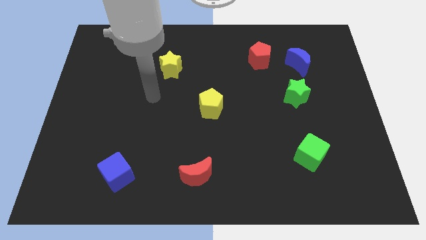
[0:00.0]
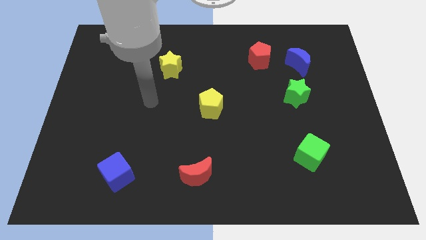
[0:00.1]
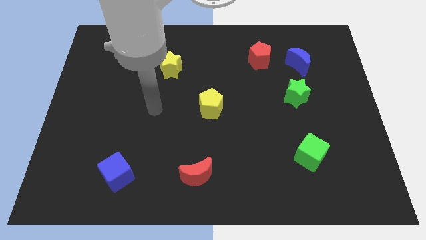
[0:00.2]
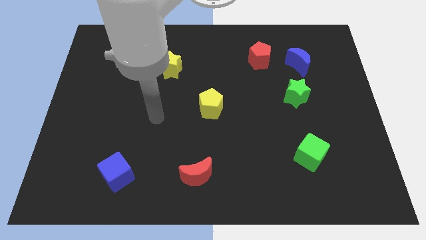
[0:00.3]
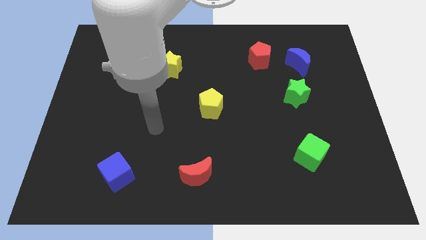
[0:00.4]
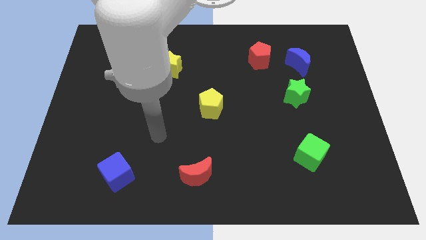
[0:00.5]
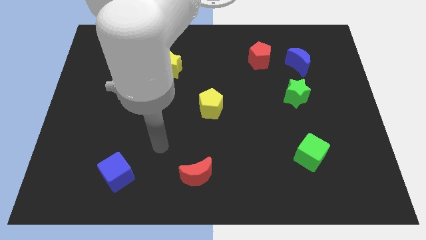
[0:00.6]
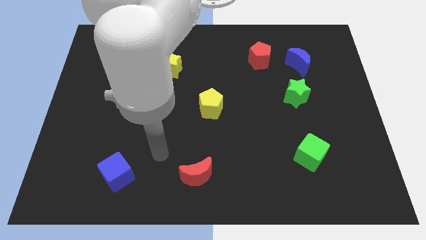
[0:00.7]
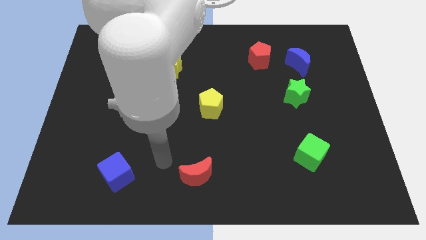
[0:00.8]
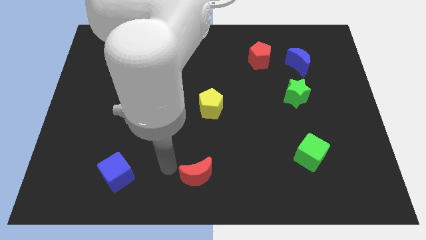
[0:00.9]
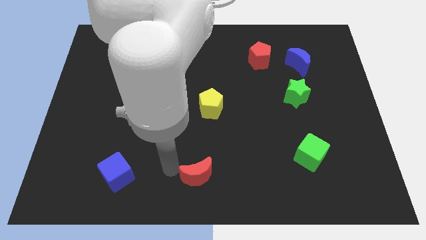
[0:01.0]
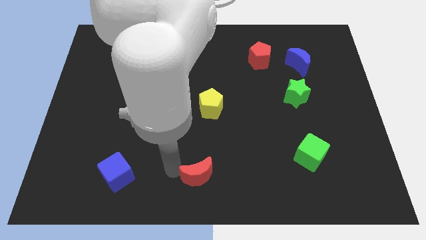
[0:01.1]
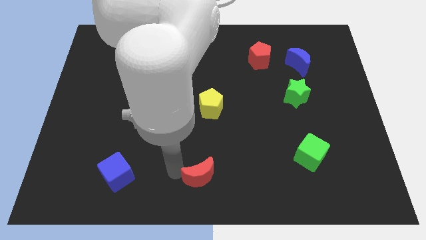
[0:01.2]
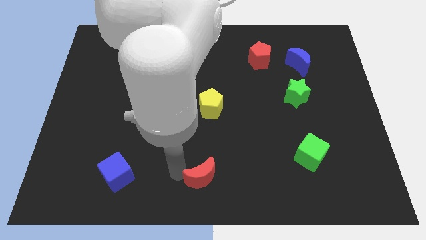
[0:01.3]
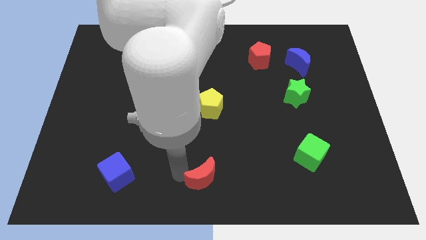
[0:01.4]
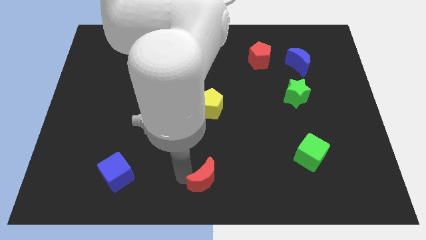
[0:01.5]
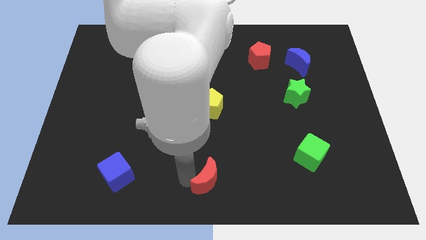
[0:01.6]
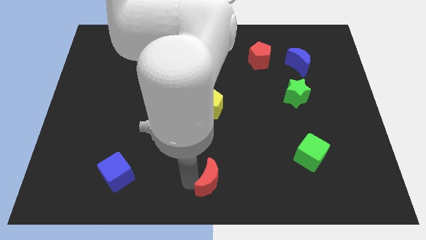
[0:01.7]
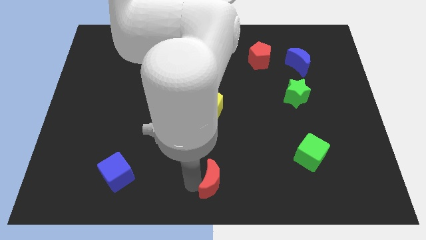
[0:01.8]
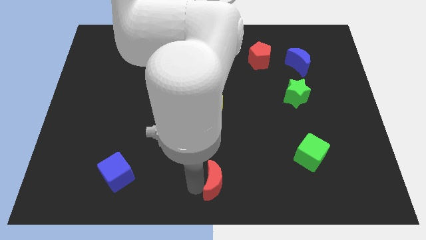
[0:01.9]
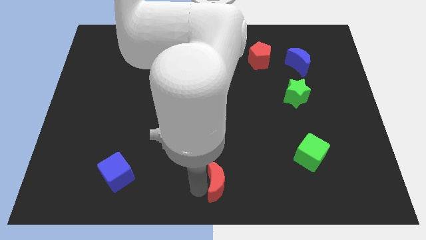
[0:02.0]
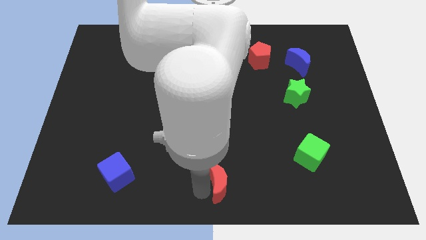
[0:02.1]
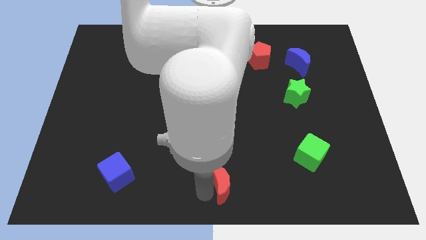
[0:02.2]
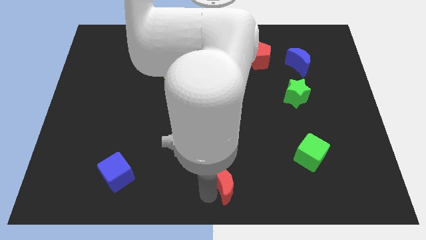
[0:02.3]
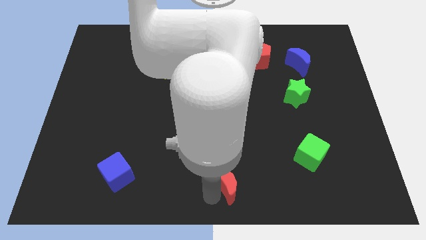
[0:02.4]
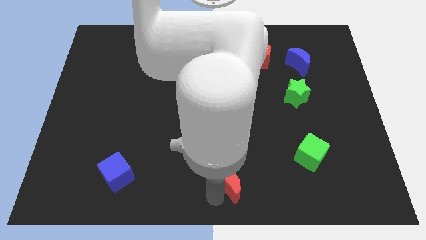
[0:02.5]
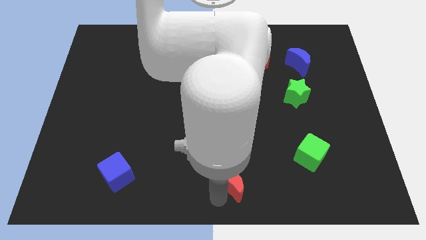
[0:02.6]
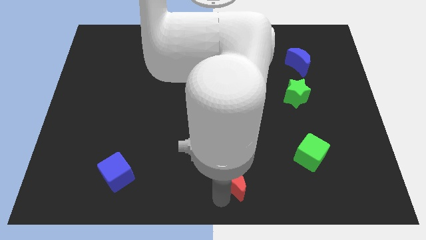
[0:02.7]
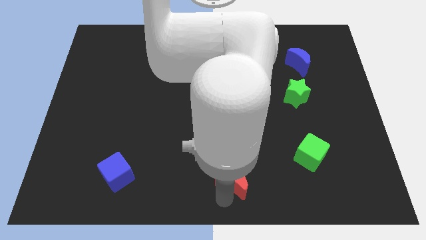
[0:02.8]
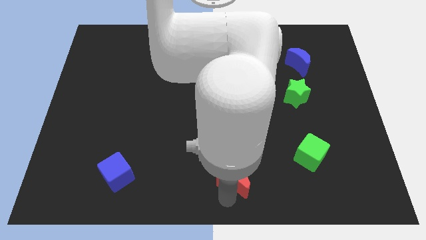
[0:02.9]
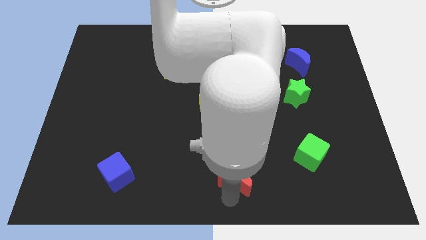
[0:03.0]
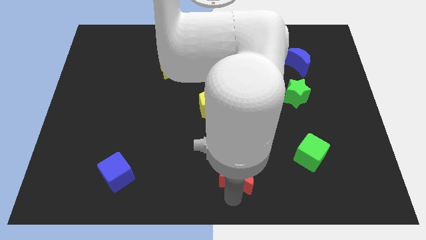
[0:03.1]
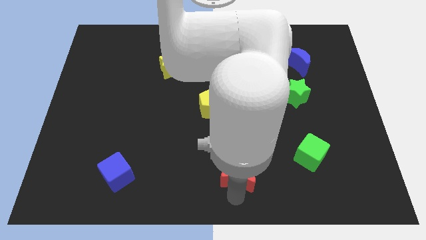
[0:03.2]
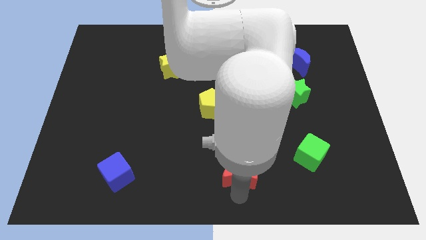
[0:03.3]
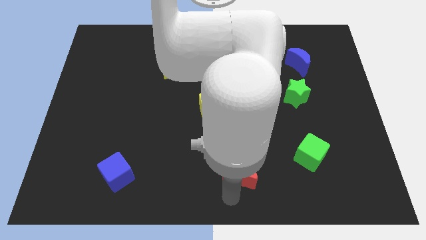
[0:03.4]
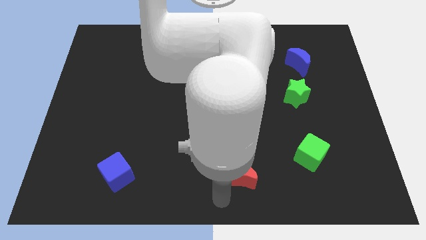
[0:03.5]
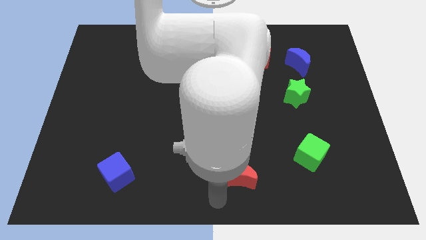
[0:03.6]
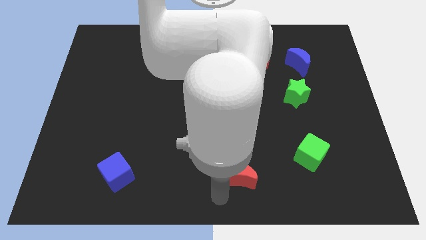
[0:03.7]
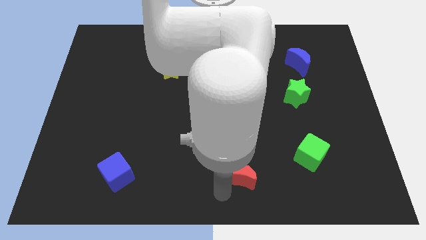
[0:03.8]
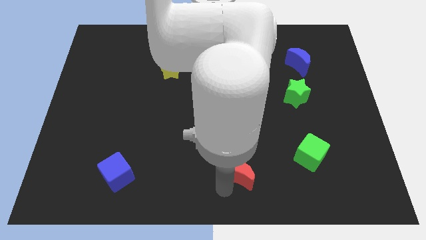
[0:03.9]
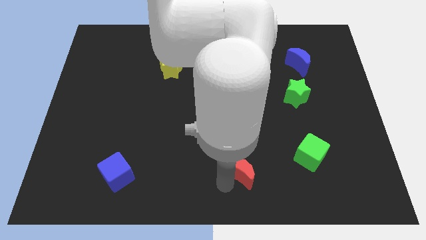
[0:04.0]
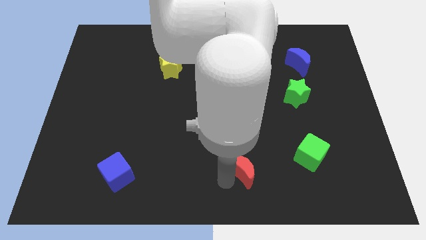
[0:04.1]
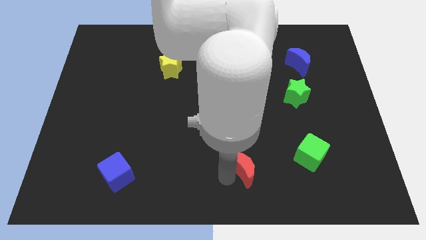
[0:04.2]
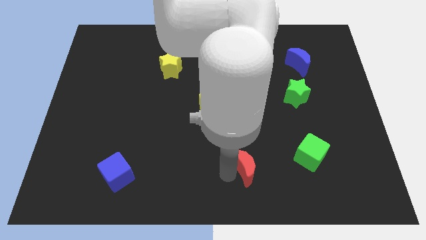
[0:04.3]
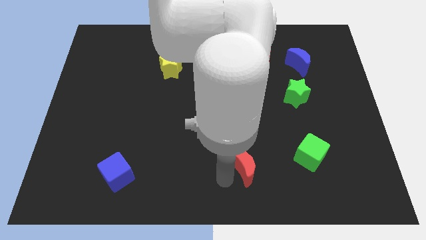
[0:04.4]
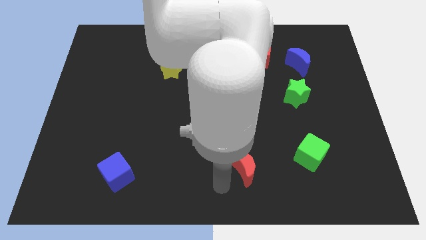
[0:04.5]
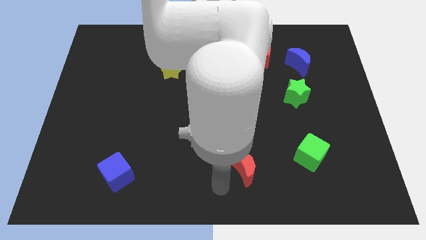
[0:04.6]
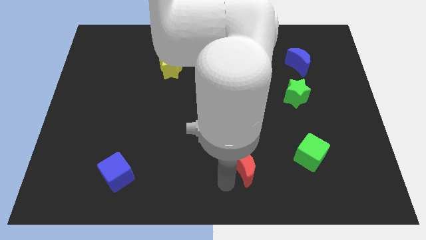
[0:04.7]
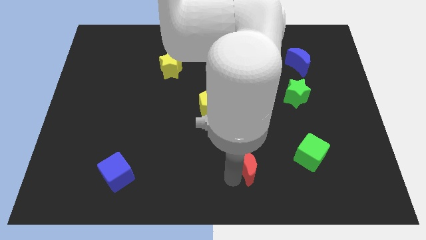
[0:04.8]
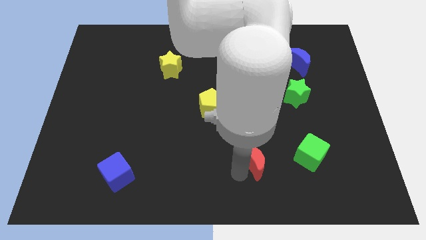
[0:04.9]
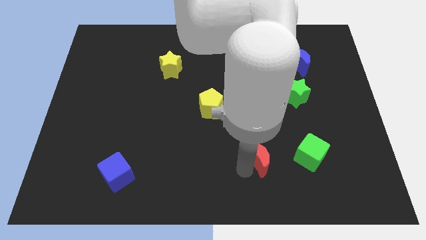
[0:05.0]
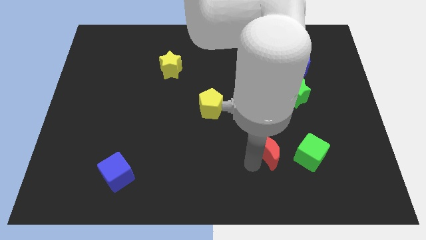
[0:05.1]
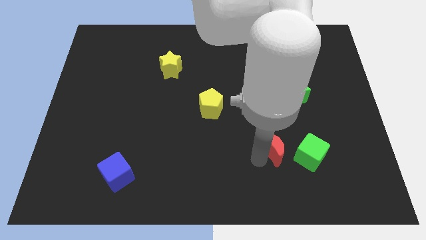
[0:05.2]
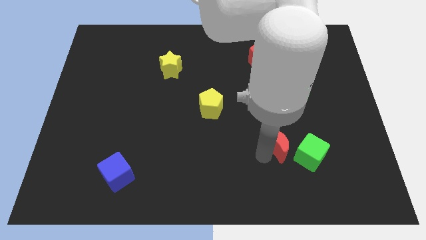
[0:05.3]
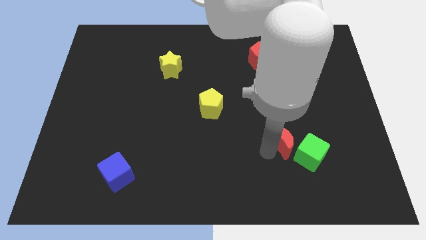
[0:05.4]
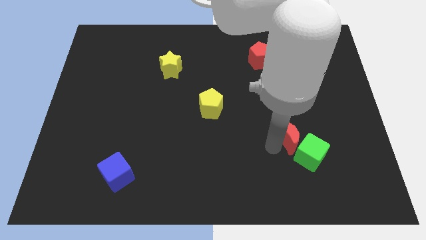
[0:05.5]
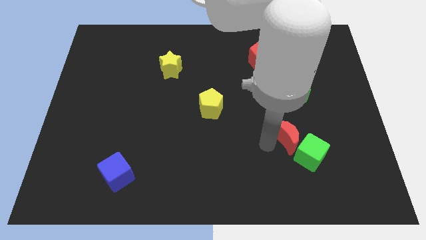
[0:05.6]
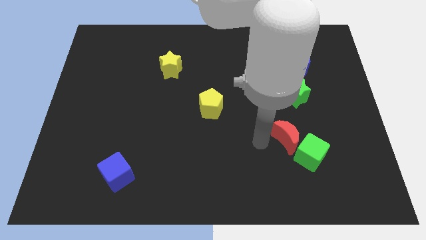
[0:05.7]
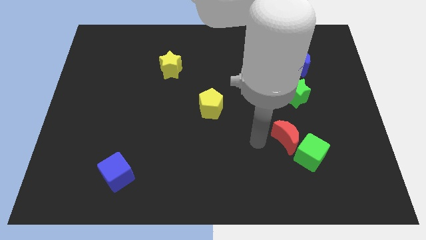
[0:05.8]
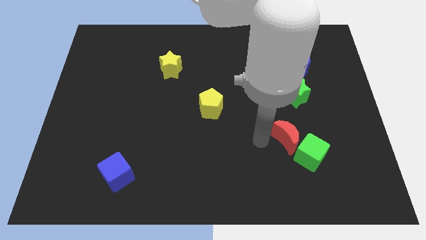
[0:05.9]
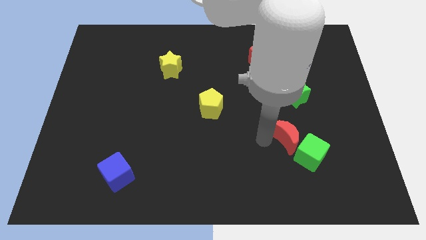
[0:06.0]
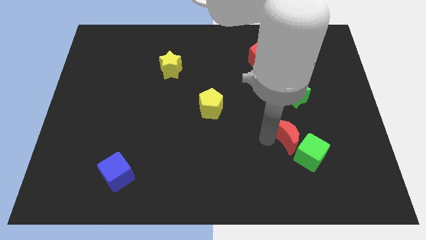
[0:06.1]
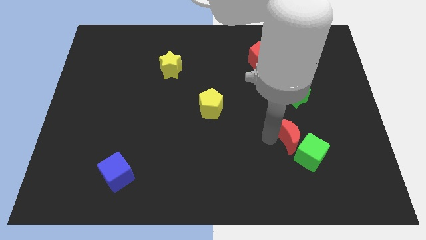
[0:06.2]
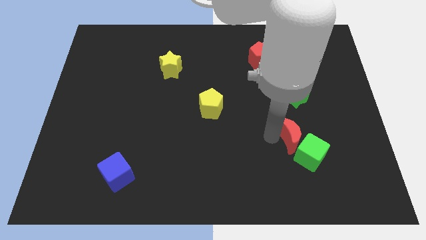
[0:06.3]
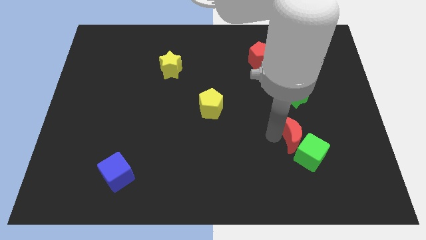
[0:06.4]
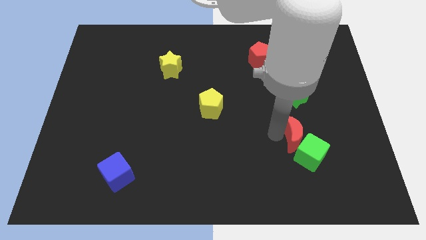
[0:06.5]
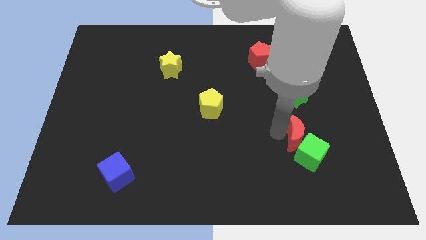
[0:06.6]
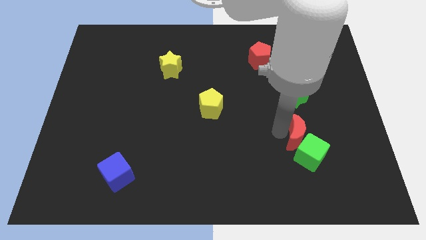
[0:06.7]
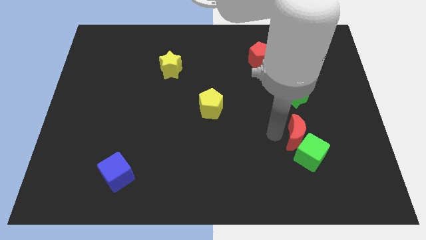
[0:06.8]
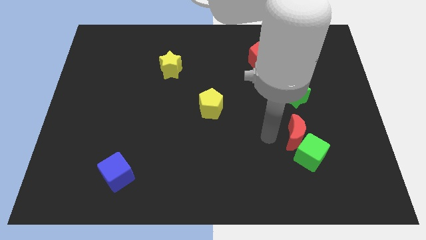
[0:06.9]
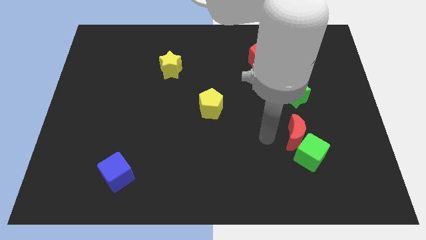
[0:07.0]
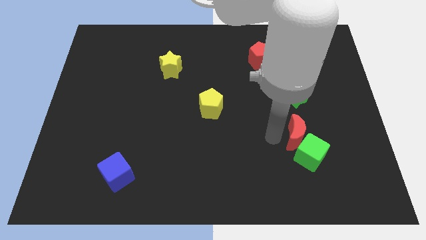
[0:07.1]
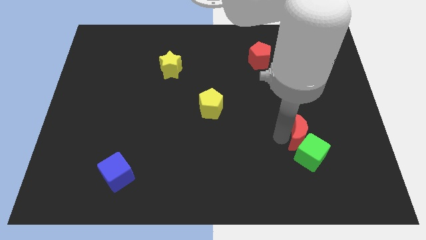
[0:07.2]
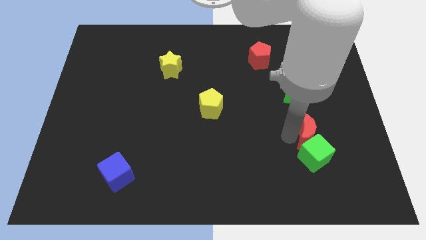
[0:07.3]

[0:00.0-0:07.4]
push the red moon diagonally up and to the right of the green cube

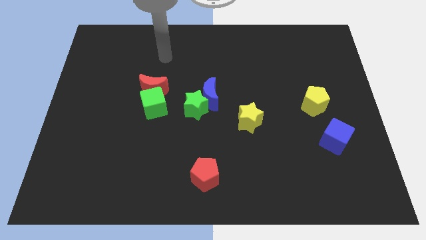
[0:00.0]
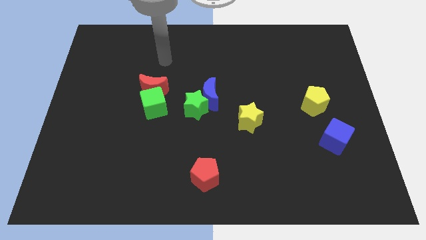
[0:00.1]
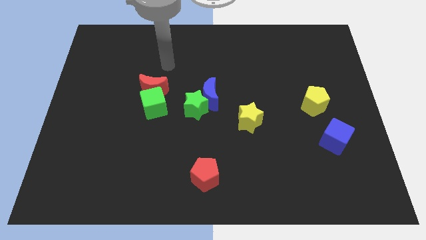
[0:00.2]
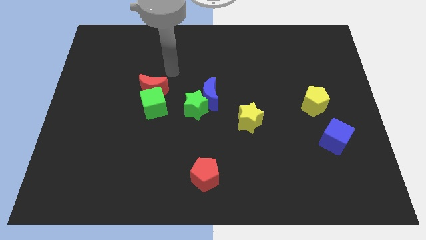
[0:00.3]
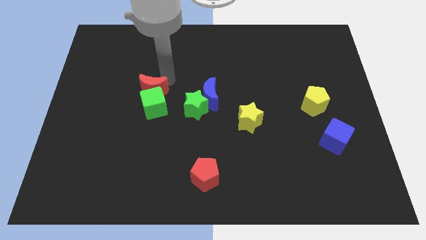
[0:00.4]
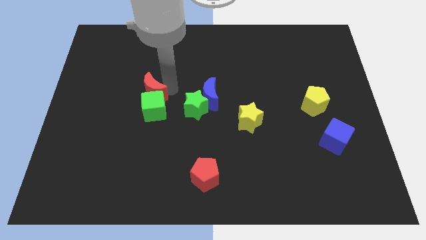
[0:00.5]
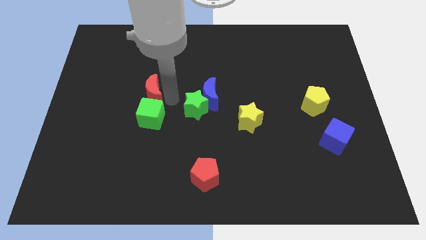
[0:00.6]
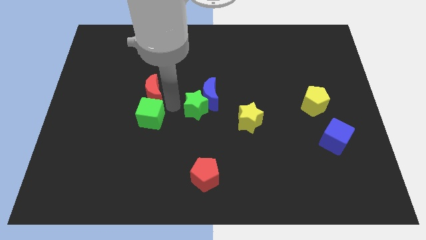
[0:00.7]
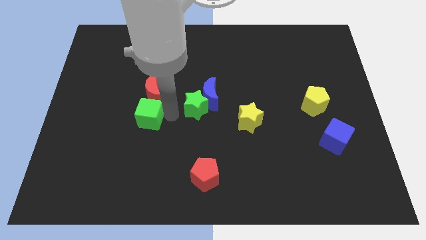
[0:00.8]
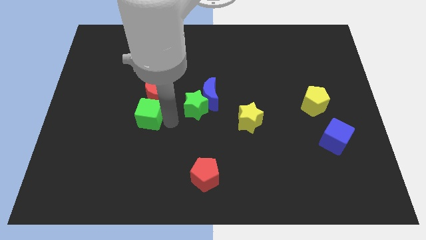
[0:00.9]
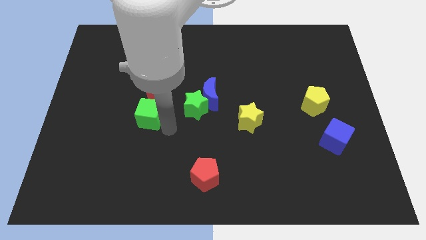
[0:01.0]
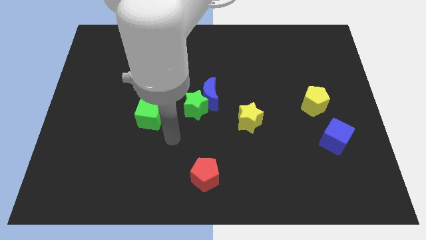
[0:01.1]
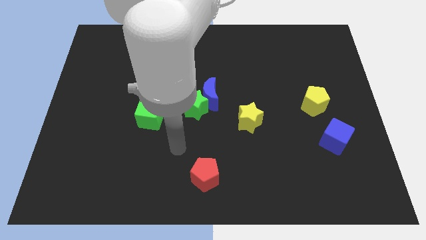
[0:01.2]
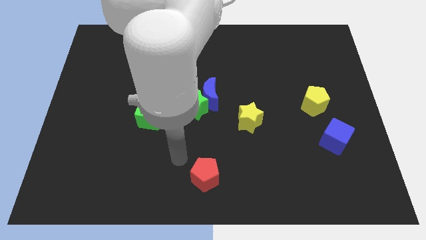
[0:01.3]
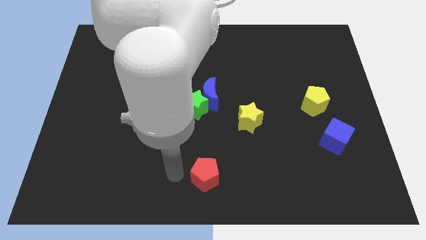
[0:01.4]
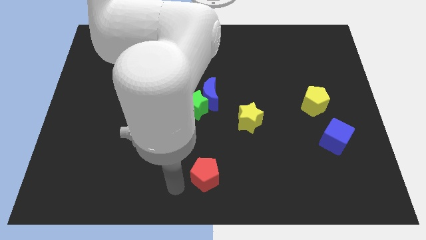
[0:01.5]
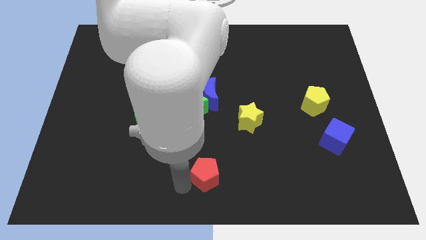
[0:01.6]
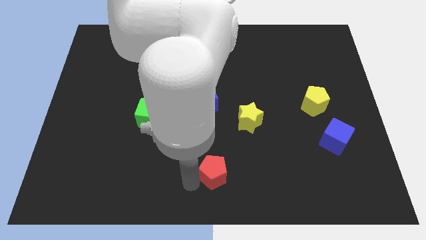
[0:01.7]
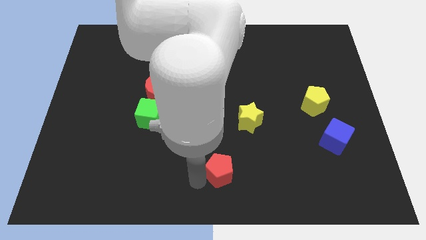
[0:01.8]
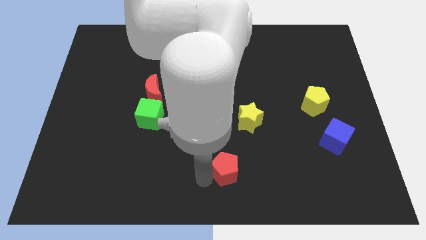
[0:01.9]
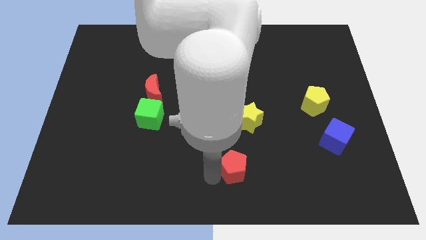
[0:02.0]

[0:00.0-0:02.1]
move the red pentagon below the yellow star
